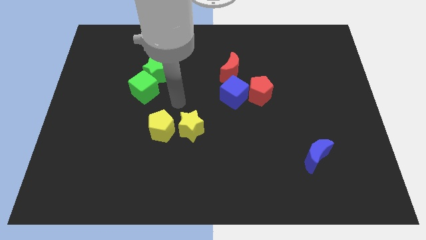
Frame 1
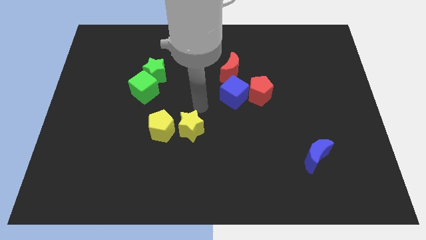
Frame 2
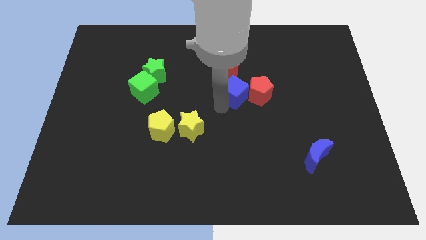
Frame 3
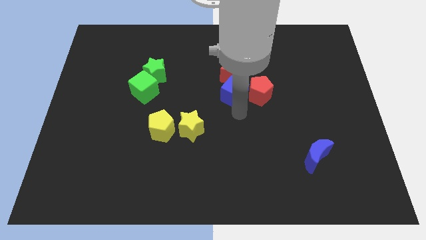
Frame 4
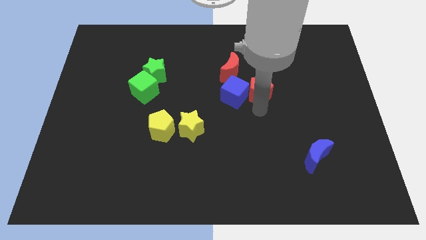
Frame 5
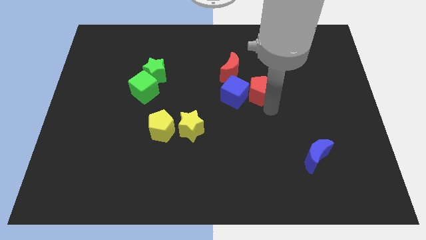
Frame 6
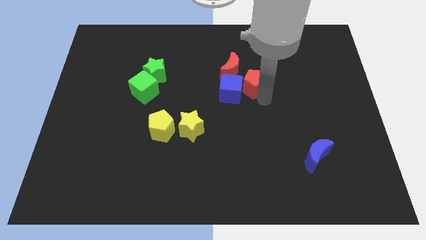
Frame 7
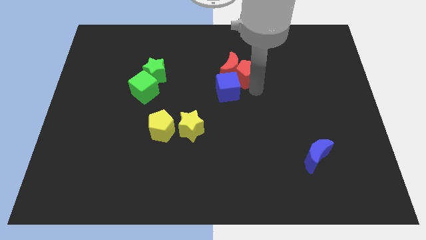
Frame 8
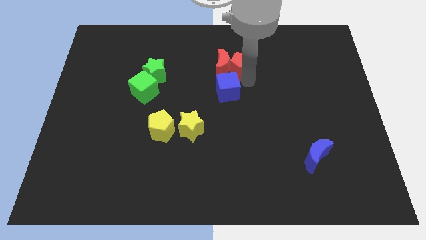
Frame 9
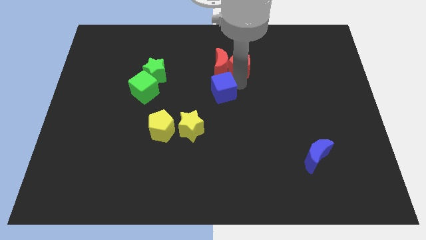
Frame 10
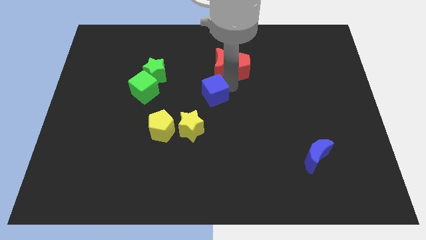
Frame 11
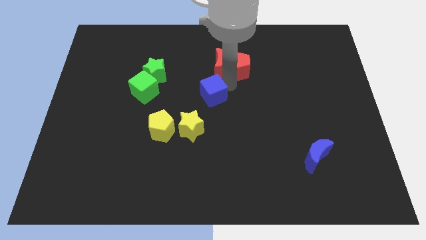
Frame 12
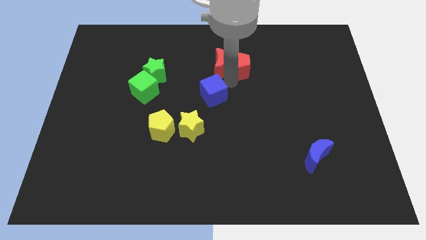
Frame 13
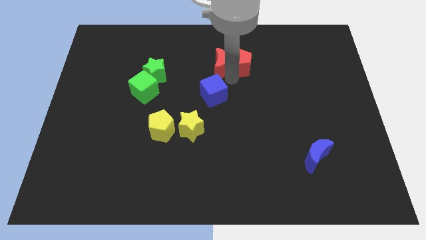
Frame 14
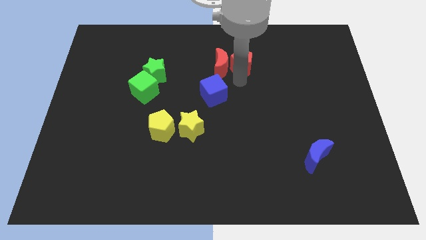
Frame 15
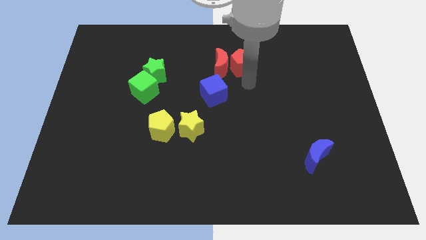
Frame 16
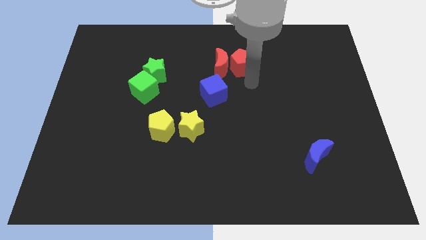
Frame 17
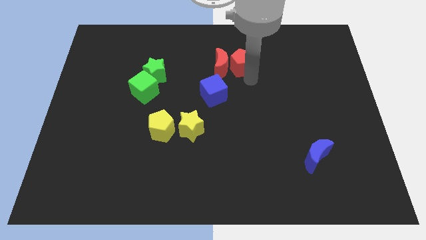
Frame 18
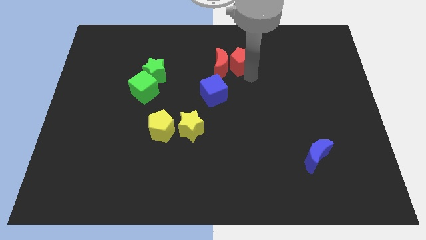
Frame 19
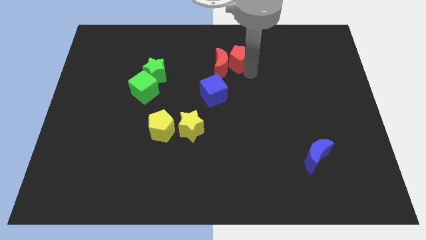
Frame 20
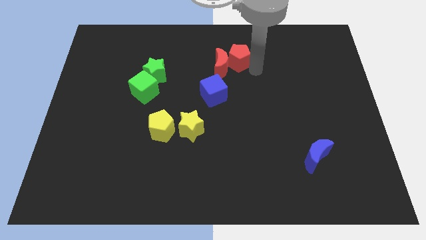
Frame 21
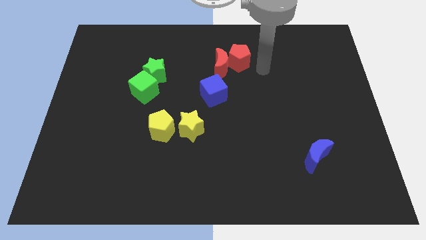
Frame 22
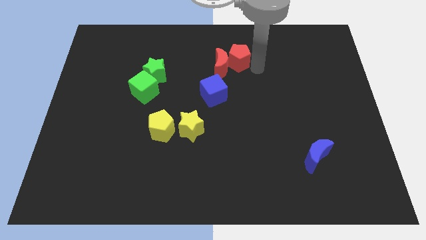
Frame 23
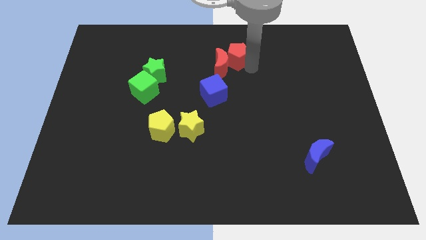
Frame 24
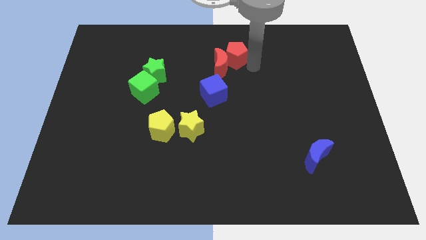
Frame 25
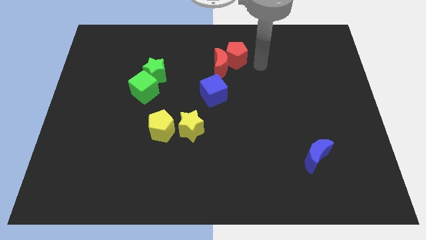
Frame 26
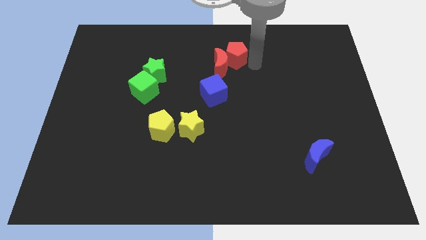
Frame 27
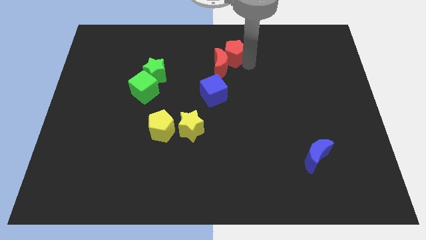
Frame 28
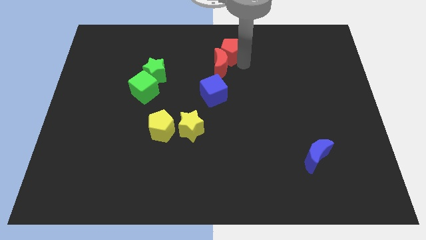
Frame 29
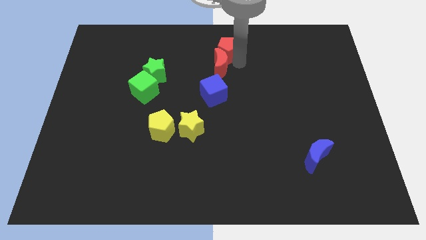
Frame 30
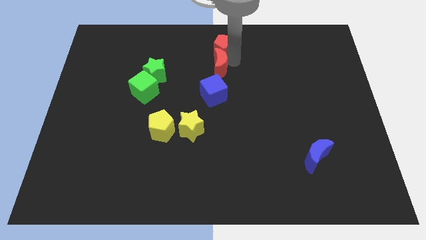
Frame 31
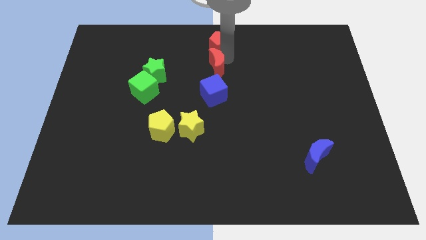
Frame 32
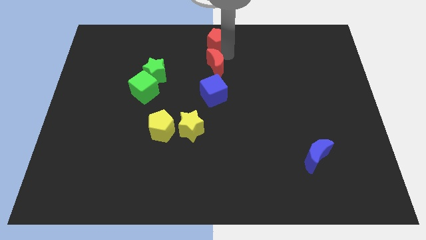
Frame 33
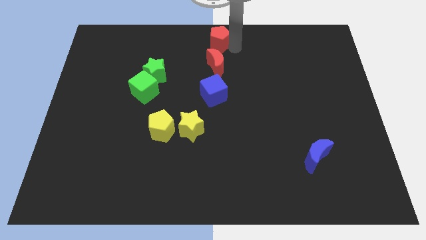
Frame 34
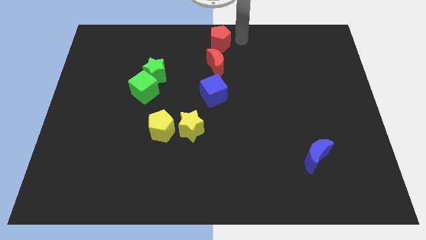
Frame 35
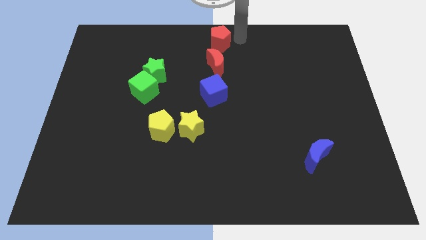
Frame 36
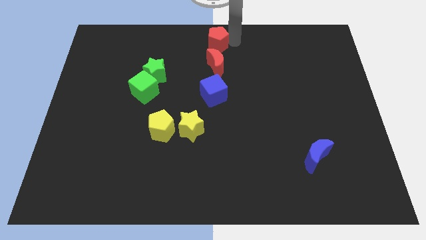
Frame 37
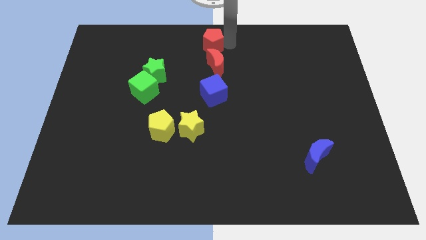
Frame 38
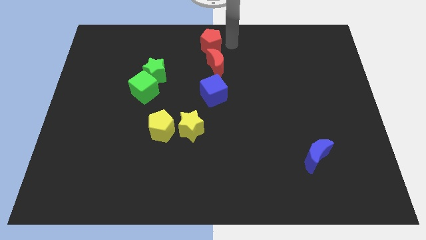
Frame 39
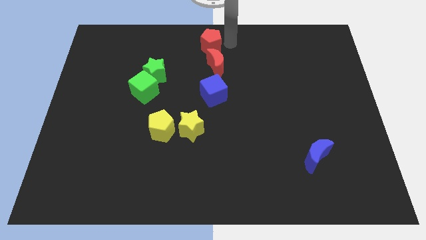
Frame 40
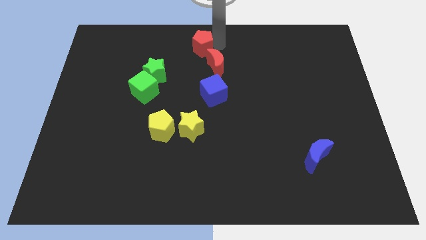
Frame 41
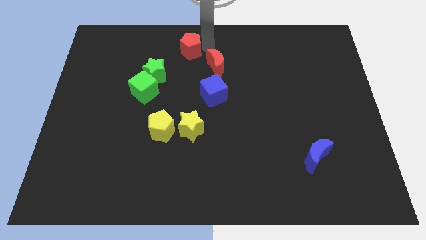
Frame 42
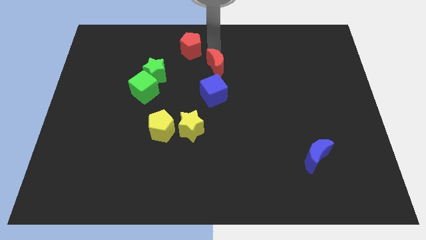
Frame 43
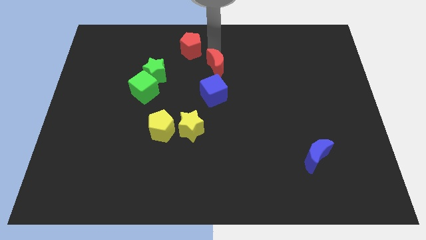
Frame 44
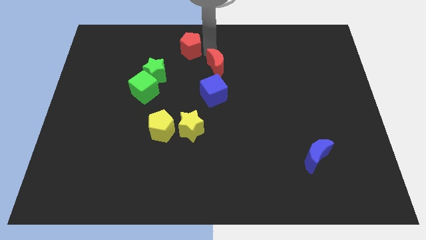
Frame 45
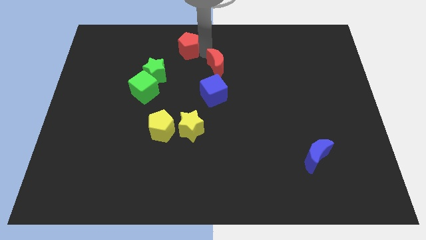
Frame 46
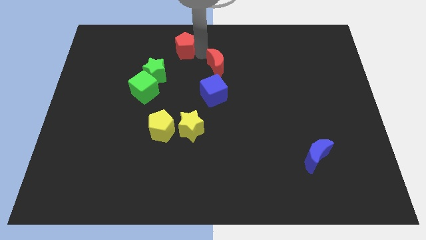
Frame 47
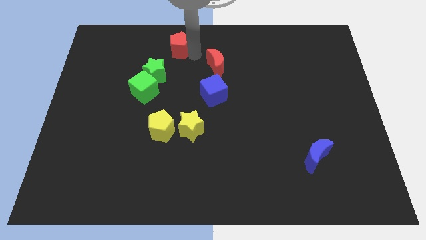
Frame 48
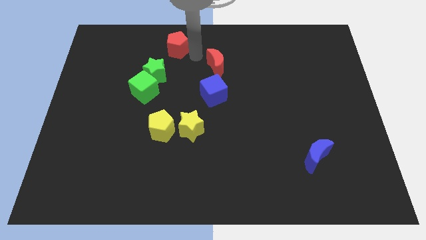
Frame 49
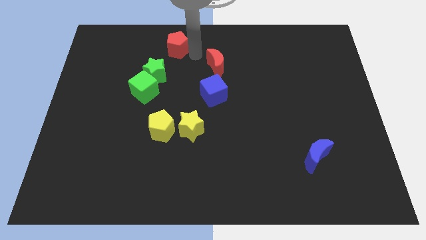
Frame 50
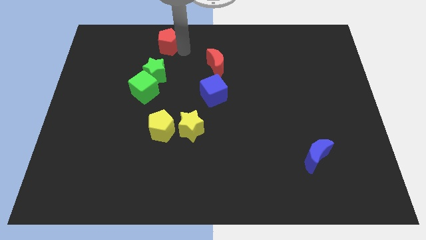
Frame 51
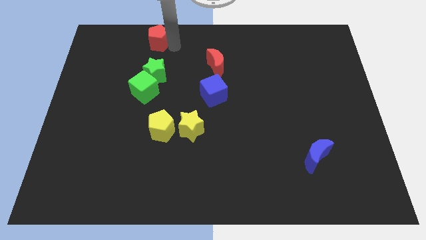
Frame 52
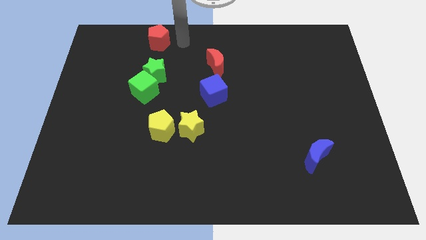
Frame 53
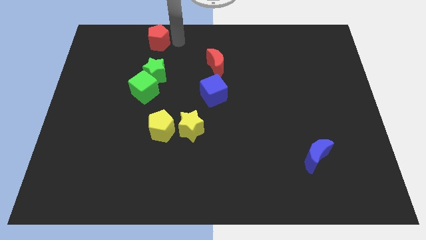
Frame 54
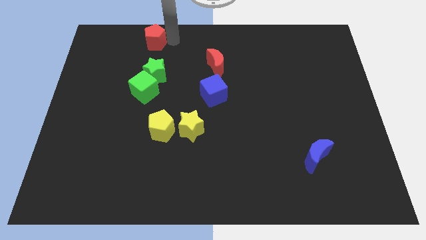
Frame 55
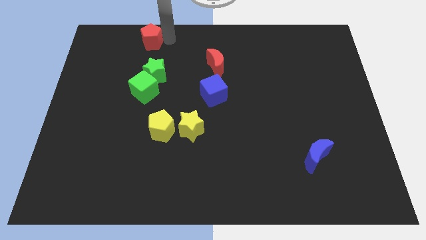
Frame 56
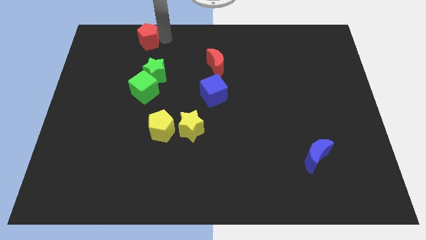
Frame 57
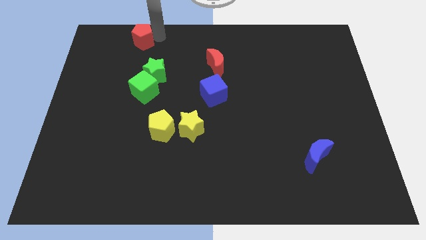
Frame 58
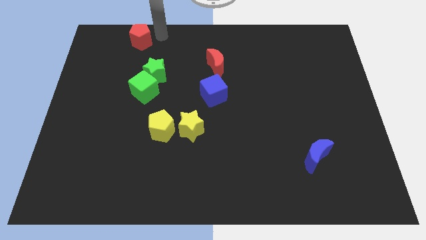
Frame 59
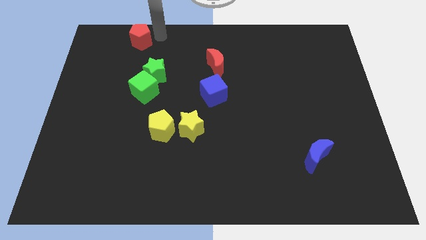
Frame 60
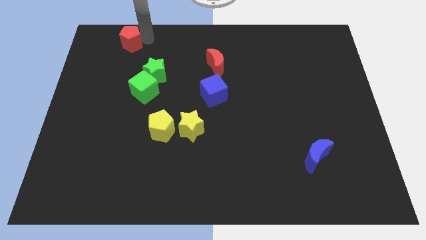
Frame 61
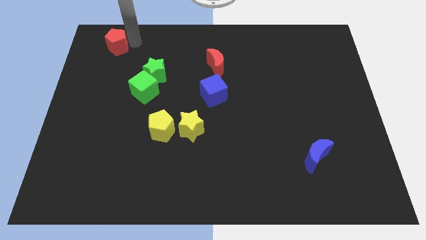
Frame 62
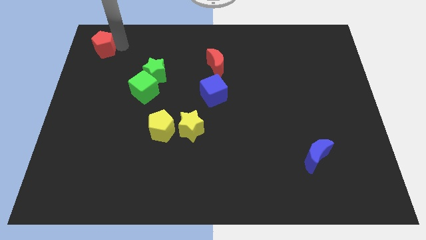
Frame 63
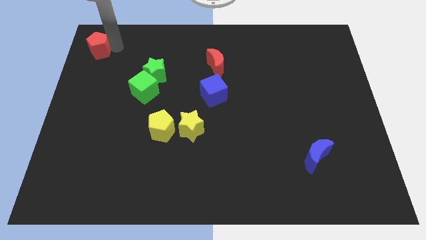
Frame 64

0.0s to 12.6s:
push the red pentagon to the top left

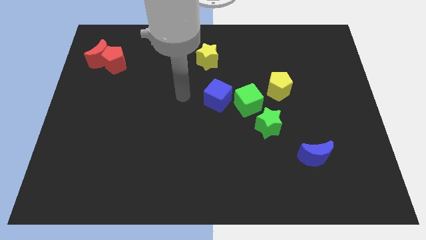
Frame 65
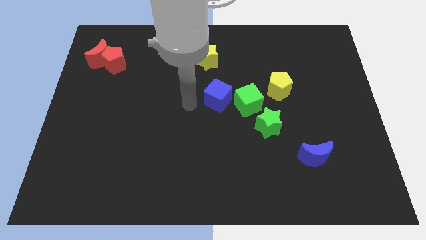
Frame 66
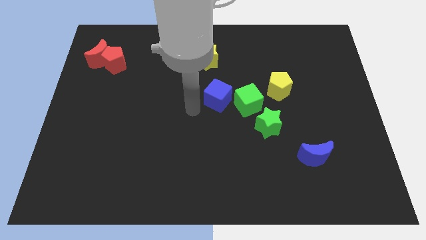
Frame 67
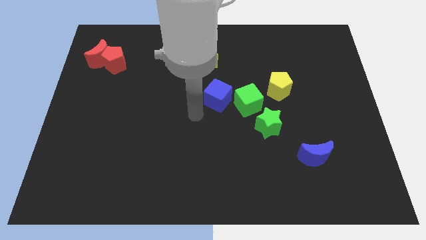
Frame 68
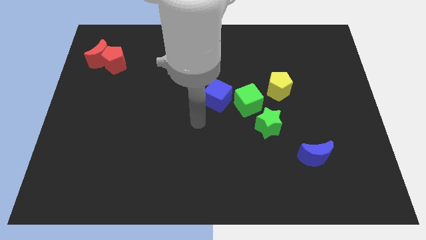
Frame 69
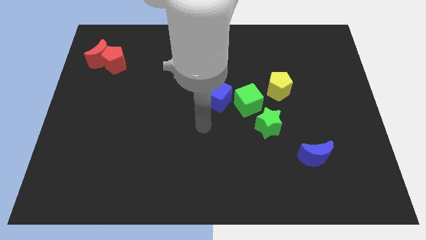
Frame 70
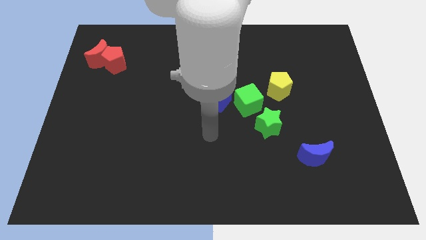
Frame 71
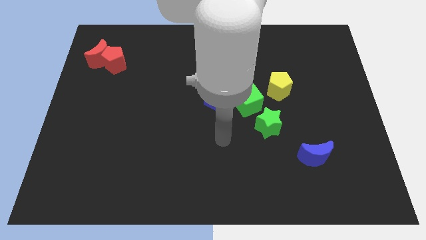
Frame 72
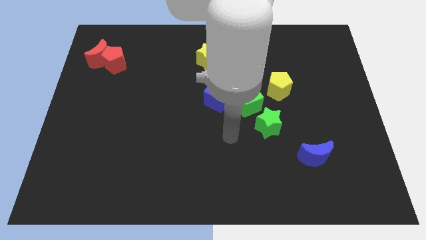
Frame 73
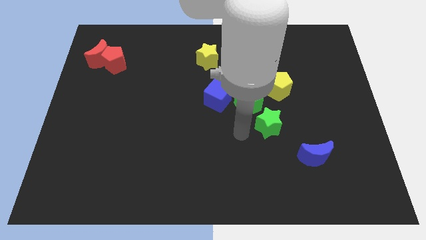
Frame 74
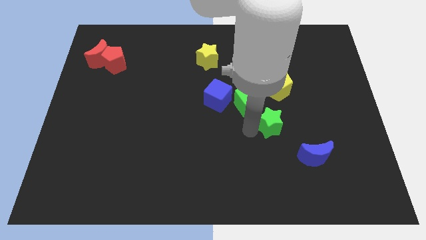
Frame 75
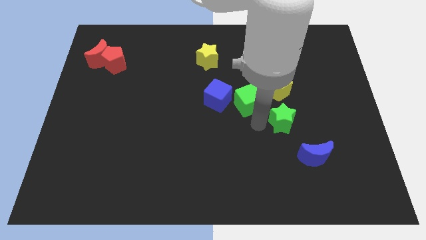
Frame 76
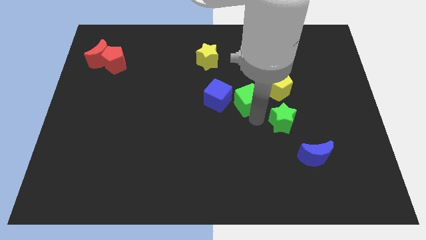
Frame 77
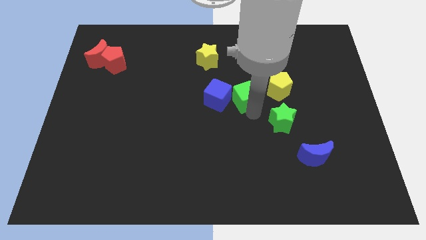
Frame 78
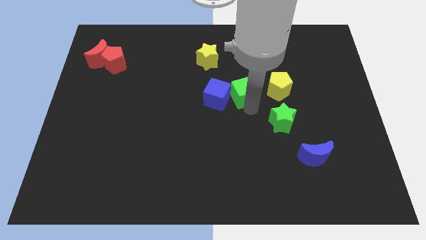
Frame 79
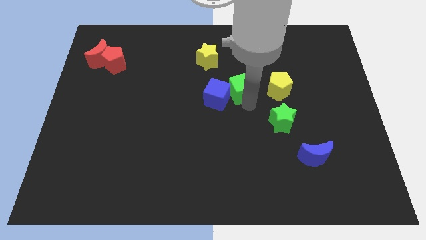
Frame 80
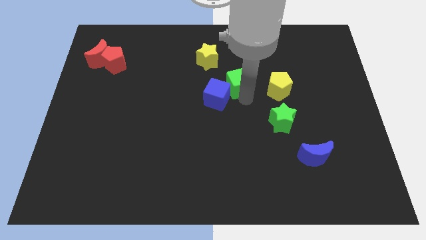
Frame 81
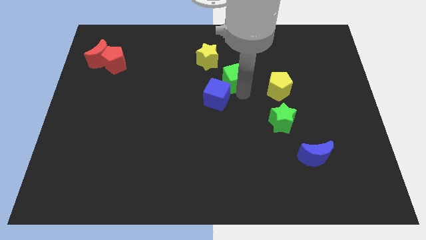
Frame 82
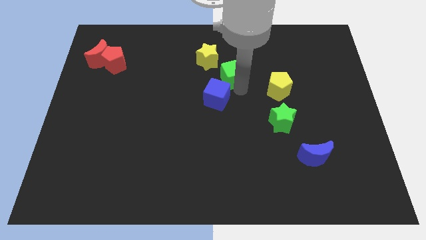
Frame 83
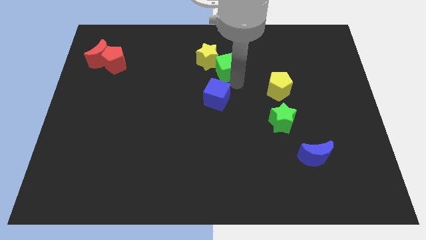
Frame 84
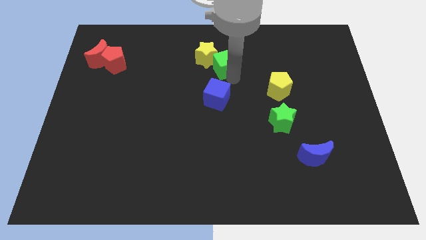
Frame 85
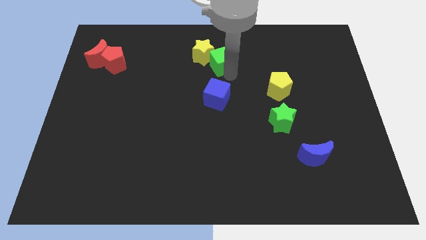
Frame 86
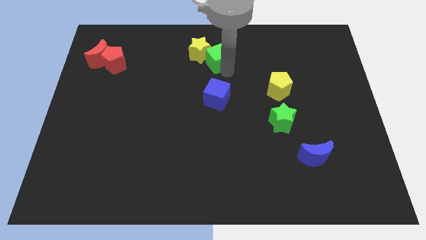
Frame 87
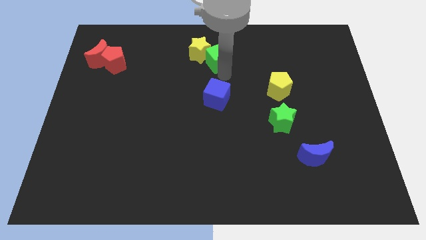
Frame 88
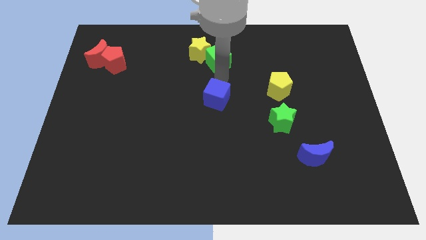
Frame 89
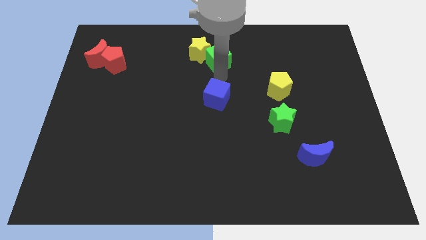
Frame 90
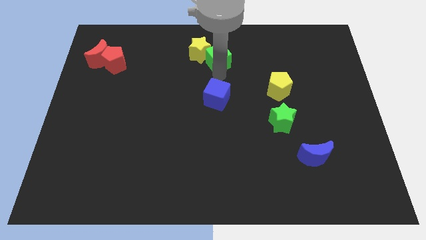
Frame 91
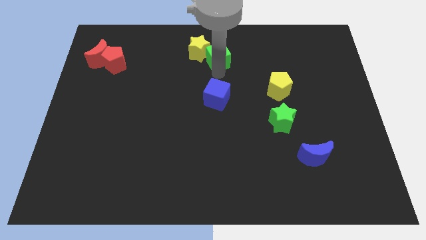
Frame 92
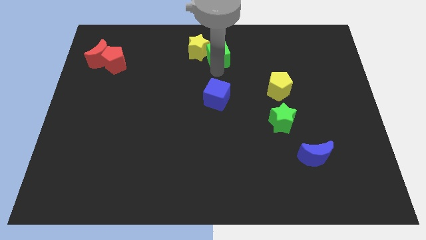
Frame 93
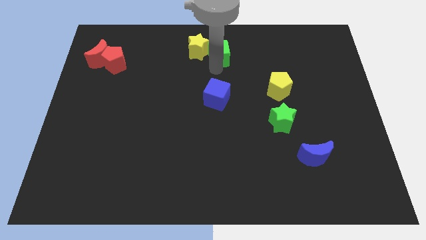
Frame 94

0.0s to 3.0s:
put the green cube to the top
